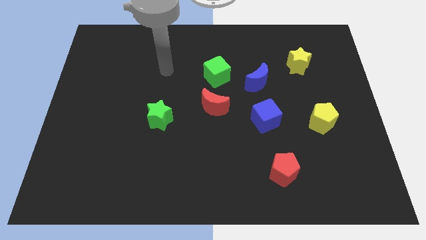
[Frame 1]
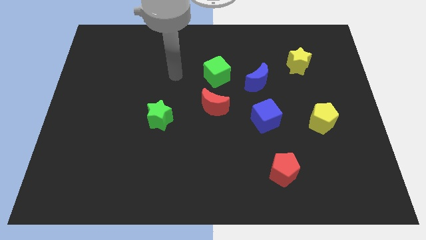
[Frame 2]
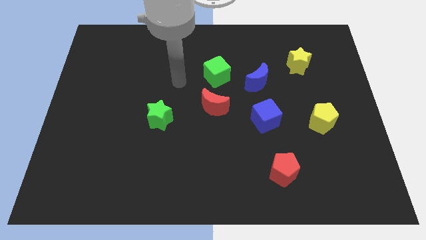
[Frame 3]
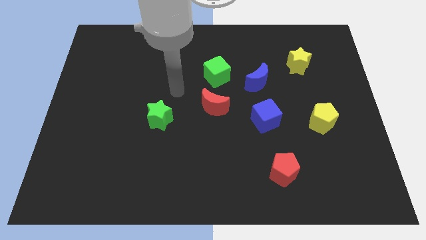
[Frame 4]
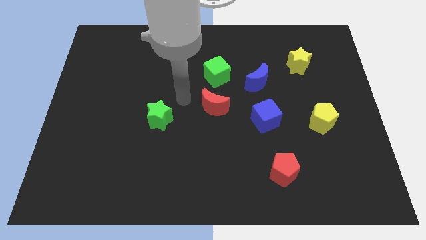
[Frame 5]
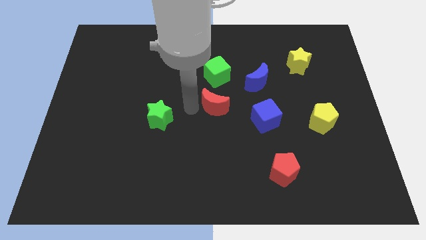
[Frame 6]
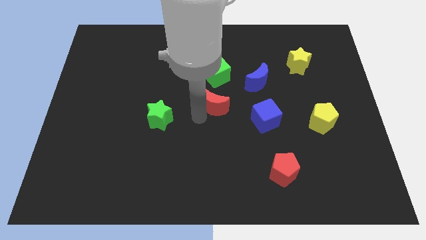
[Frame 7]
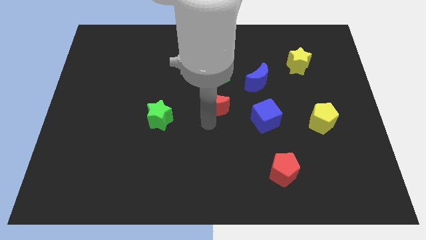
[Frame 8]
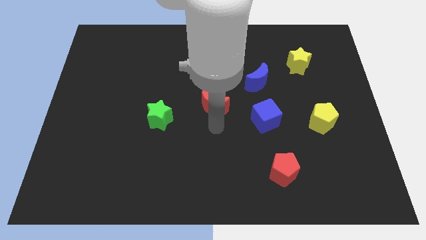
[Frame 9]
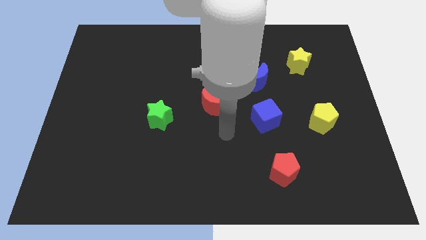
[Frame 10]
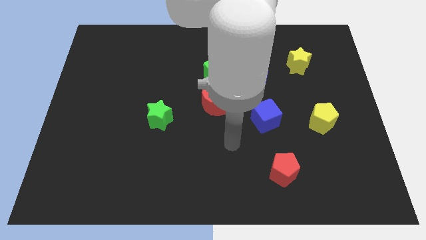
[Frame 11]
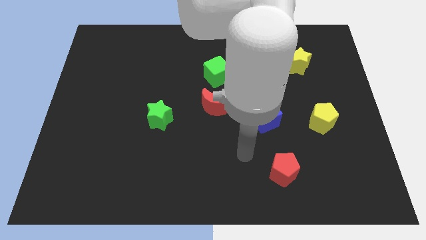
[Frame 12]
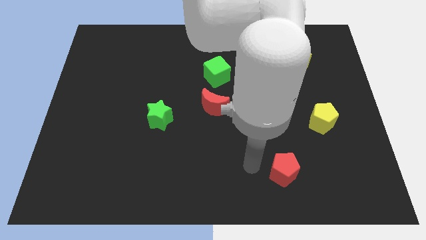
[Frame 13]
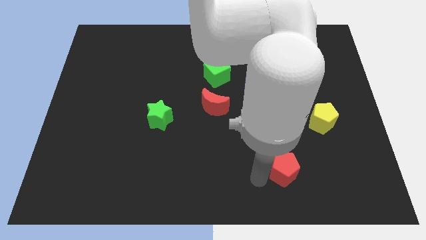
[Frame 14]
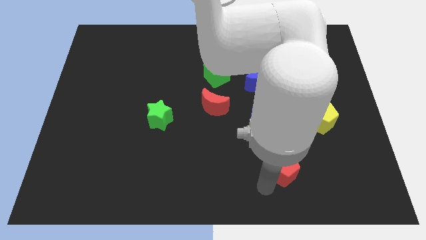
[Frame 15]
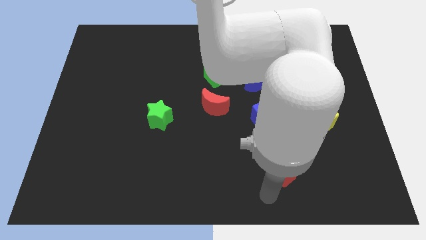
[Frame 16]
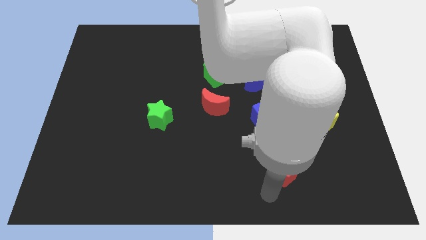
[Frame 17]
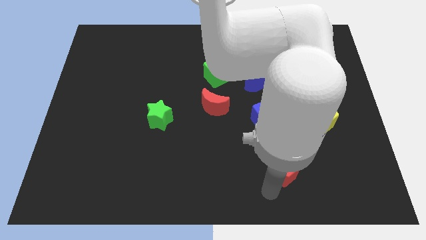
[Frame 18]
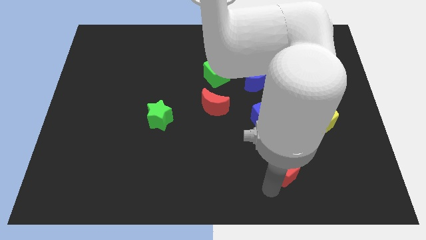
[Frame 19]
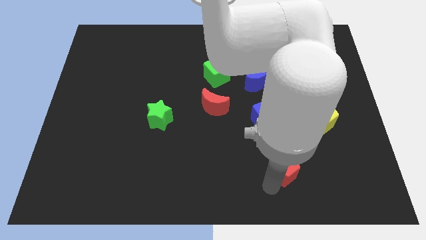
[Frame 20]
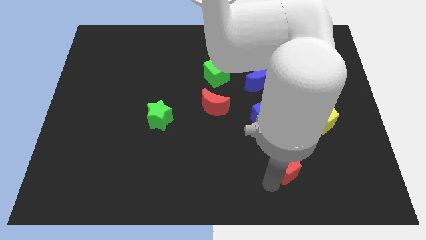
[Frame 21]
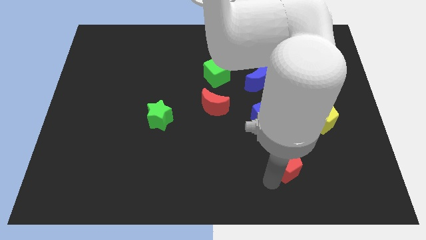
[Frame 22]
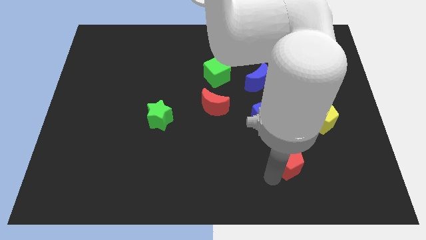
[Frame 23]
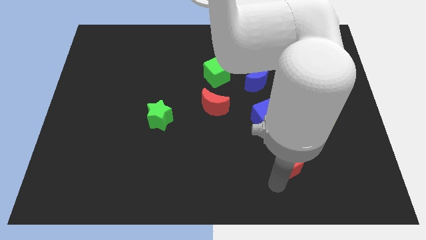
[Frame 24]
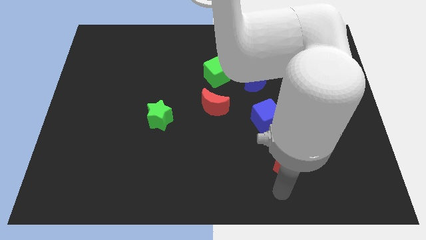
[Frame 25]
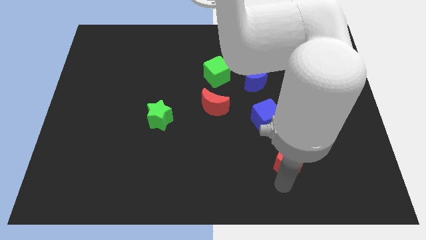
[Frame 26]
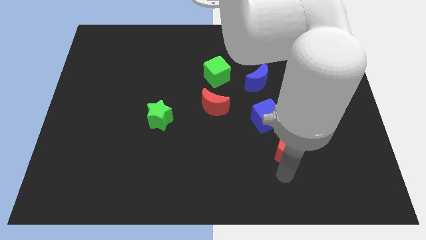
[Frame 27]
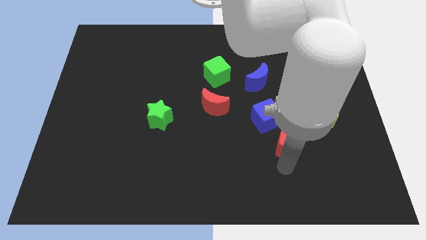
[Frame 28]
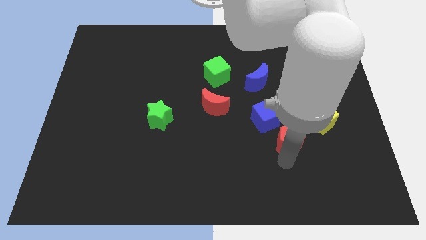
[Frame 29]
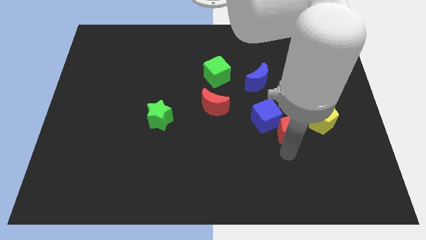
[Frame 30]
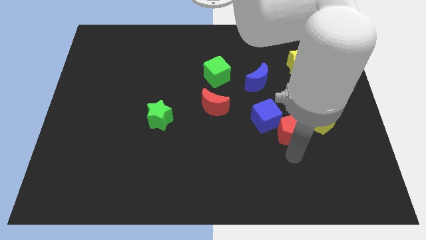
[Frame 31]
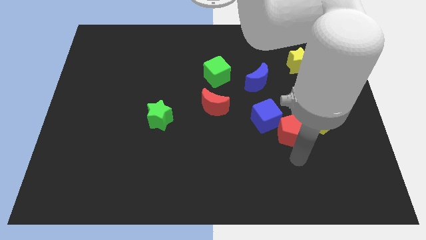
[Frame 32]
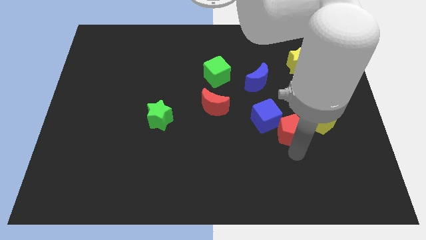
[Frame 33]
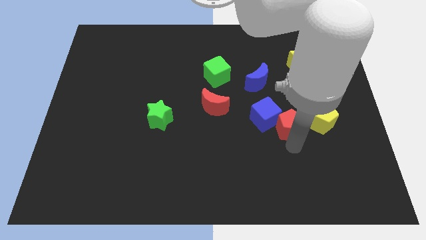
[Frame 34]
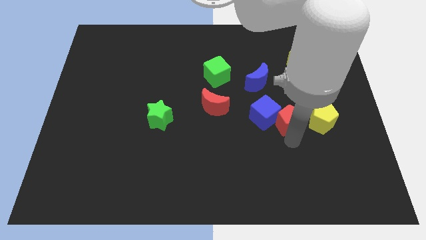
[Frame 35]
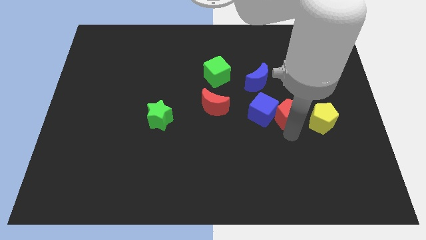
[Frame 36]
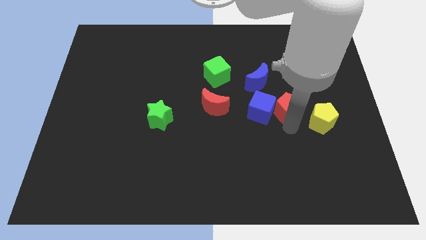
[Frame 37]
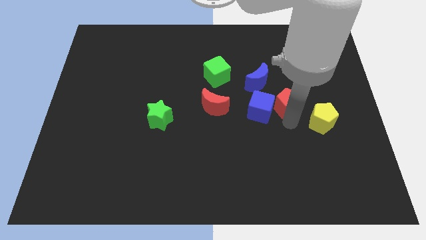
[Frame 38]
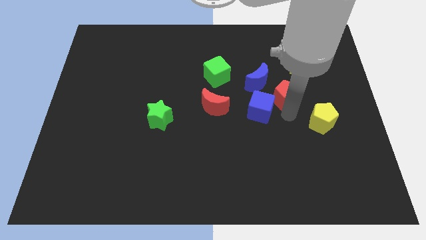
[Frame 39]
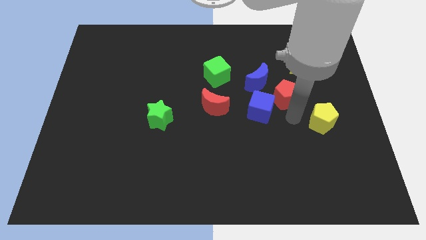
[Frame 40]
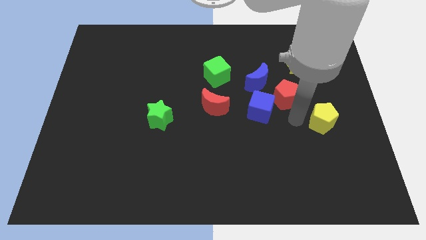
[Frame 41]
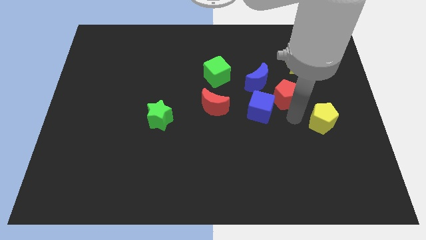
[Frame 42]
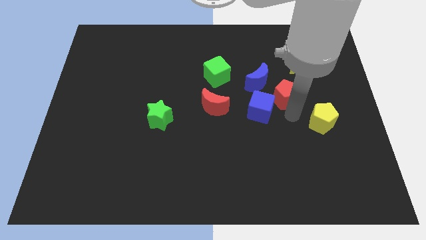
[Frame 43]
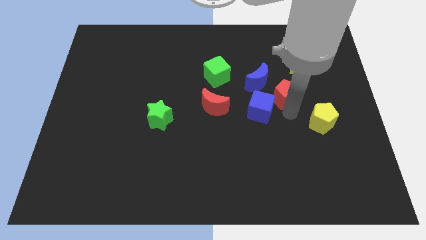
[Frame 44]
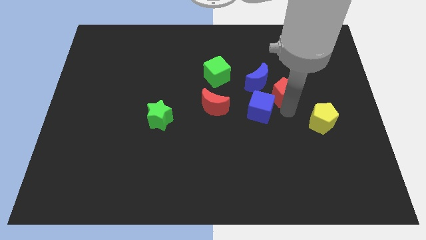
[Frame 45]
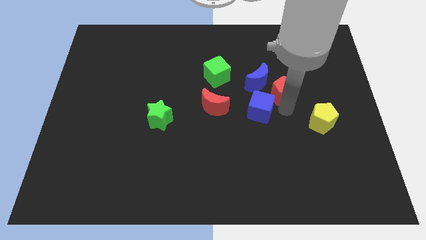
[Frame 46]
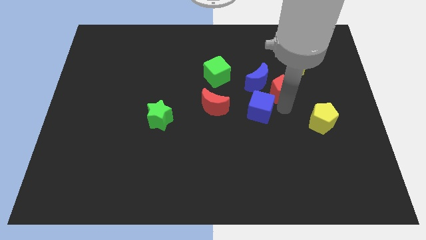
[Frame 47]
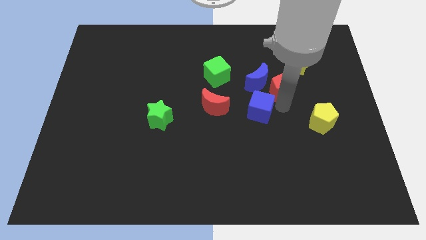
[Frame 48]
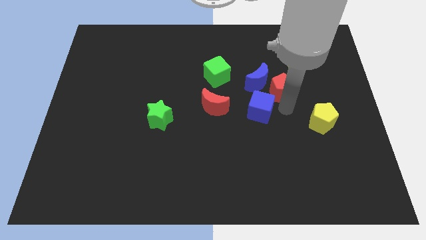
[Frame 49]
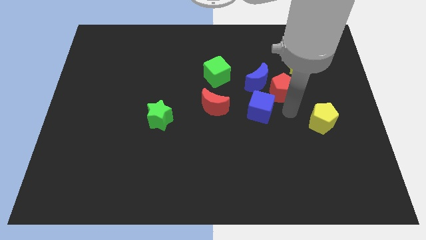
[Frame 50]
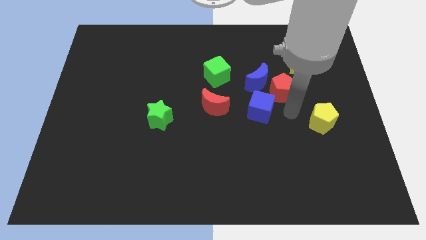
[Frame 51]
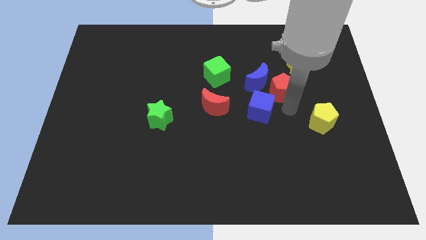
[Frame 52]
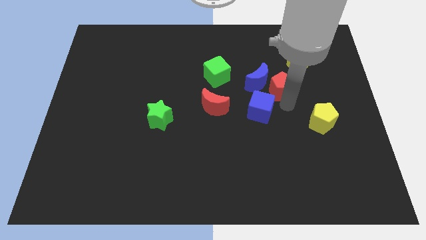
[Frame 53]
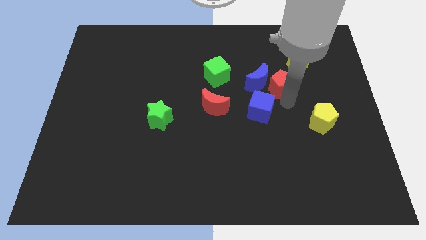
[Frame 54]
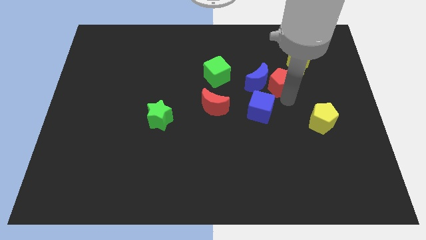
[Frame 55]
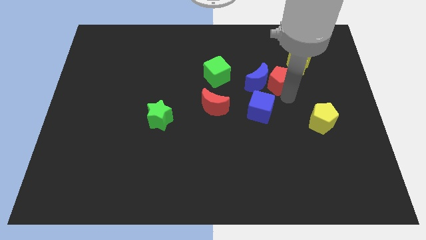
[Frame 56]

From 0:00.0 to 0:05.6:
push the red pentagon just right of the green cube

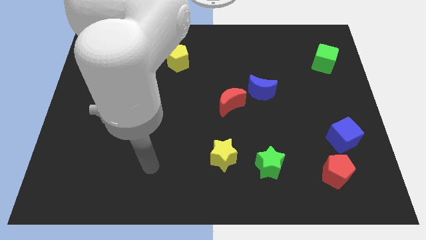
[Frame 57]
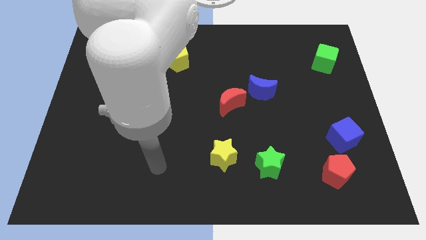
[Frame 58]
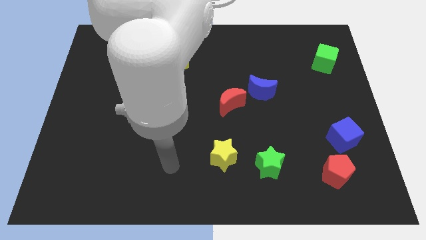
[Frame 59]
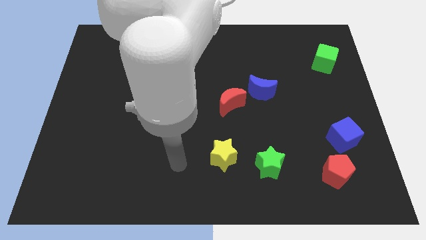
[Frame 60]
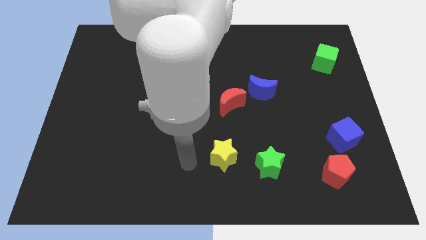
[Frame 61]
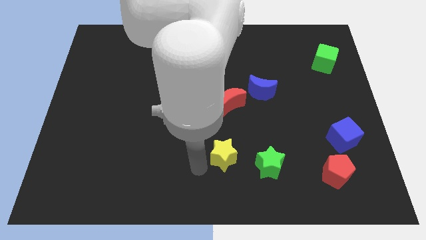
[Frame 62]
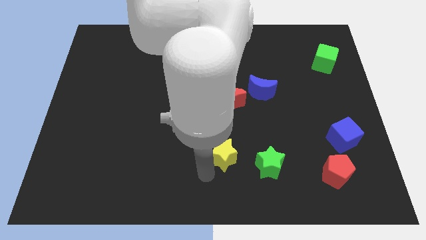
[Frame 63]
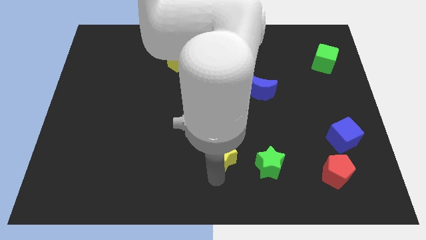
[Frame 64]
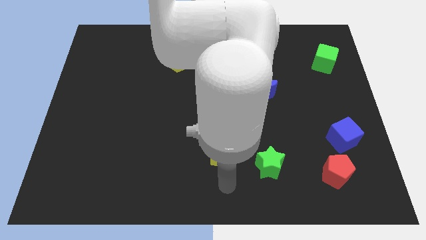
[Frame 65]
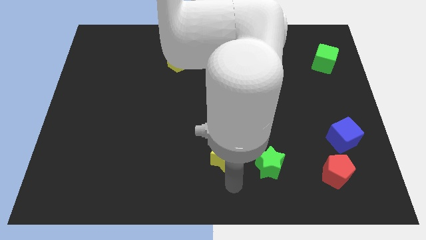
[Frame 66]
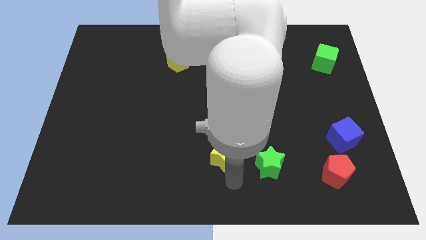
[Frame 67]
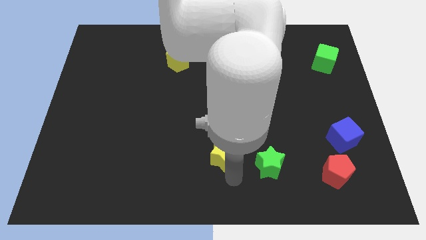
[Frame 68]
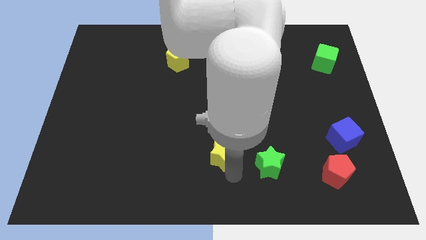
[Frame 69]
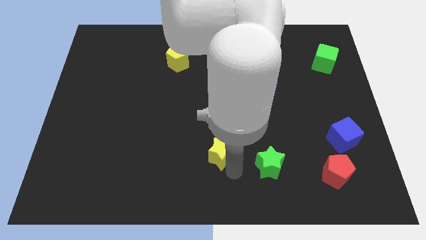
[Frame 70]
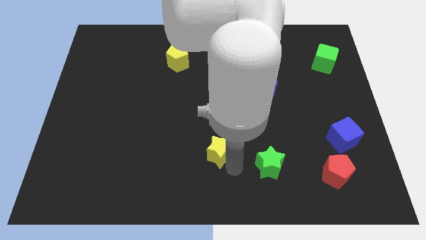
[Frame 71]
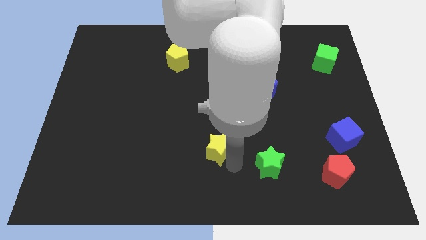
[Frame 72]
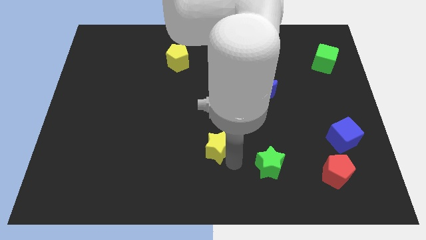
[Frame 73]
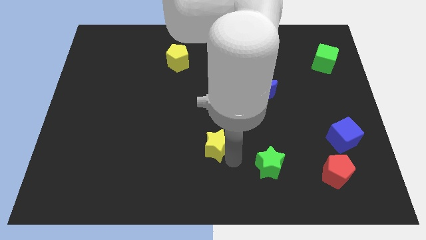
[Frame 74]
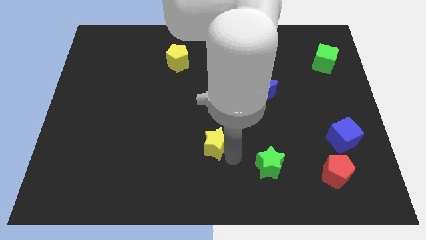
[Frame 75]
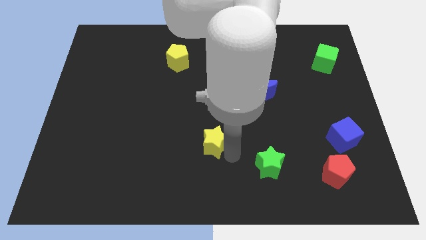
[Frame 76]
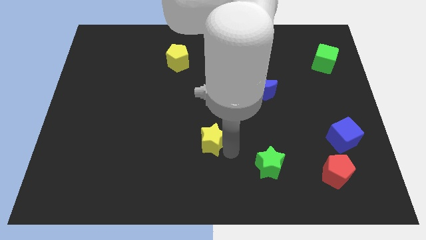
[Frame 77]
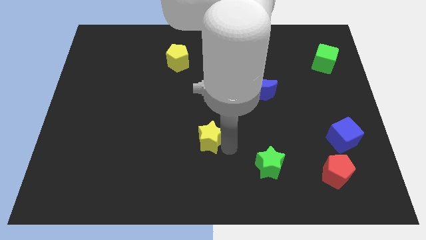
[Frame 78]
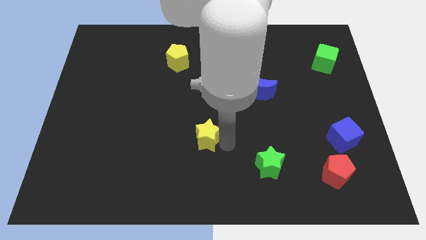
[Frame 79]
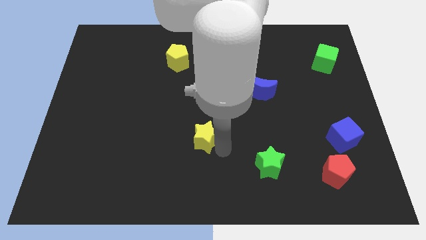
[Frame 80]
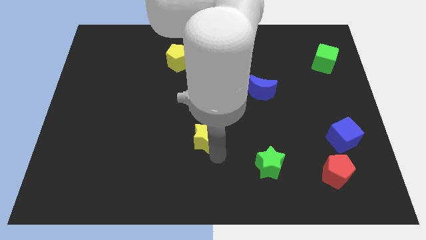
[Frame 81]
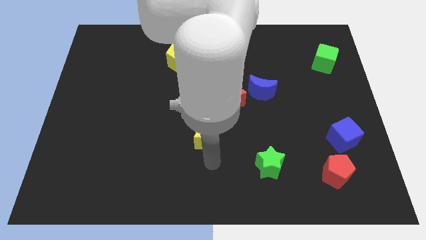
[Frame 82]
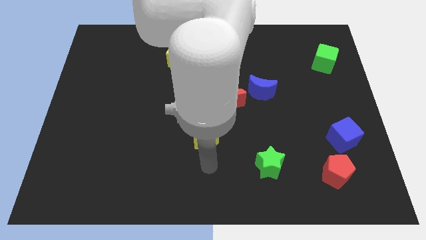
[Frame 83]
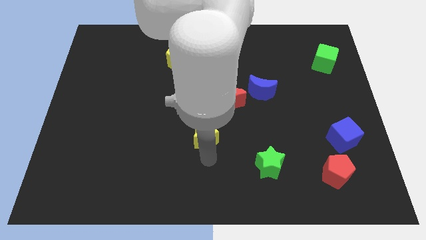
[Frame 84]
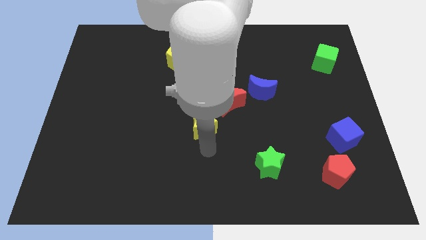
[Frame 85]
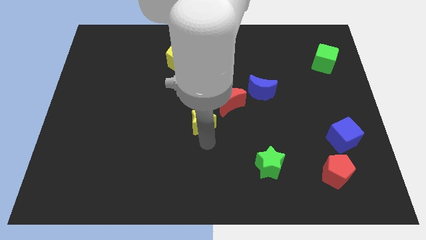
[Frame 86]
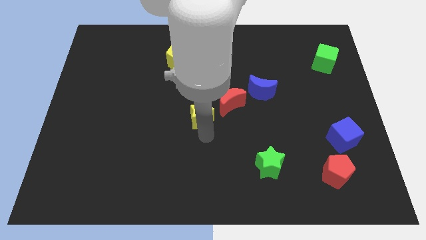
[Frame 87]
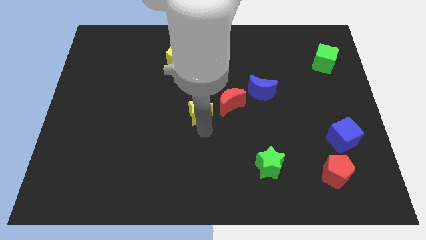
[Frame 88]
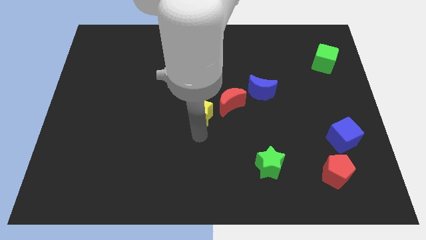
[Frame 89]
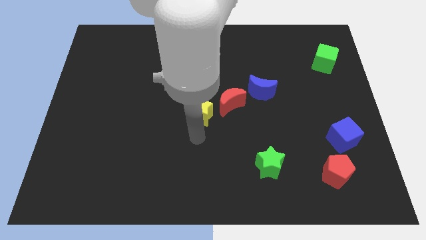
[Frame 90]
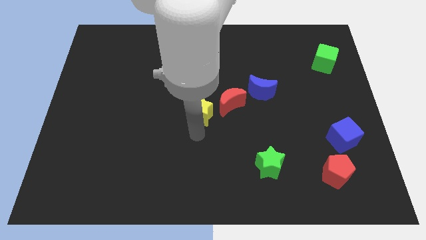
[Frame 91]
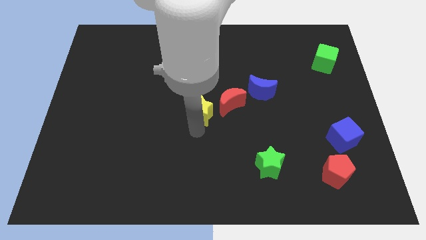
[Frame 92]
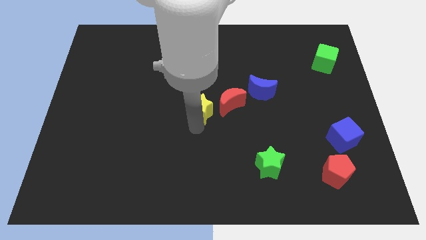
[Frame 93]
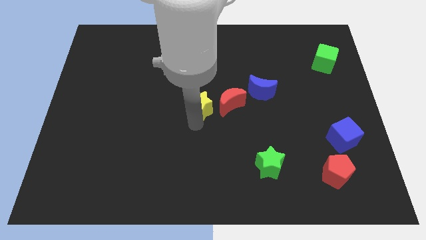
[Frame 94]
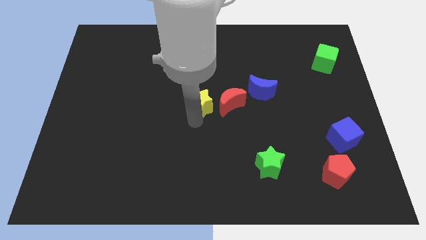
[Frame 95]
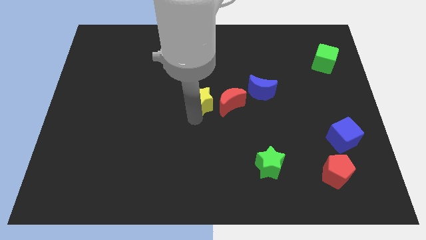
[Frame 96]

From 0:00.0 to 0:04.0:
push the yellow star to the top left side of the red moon
